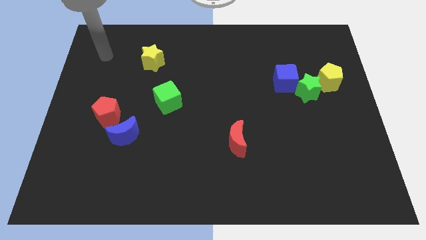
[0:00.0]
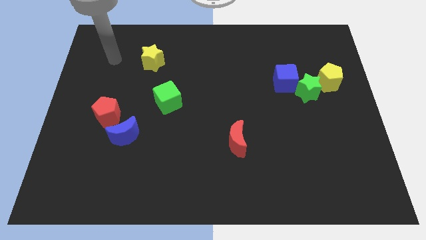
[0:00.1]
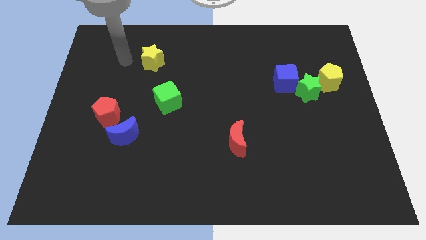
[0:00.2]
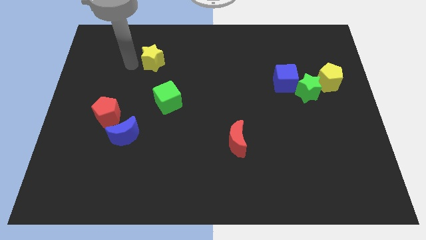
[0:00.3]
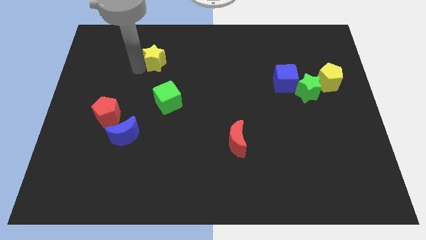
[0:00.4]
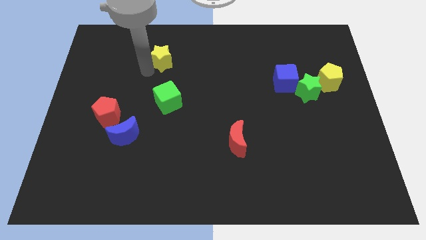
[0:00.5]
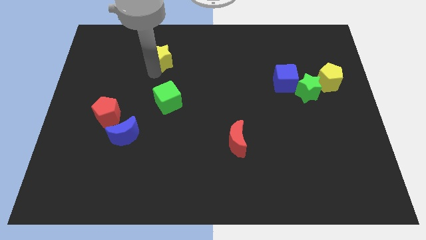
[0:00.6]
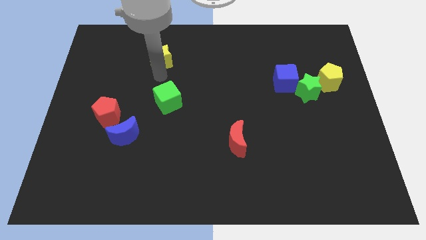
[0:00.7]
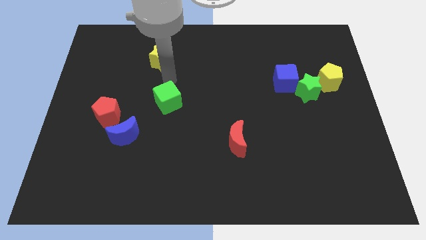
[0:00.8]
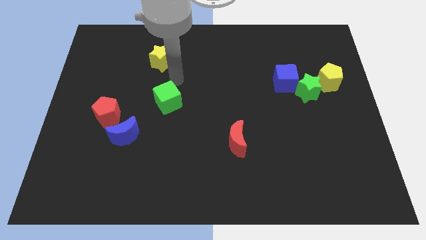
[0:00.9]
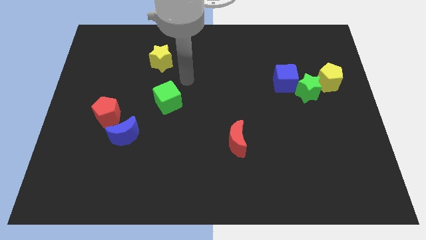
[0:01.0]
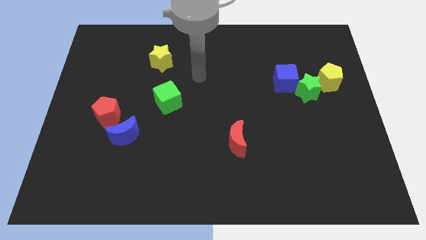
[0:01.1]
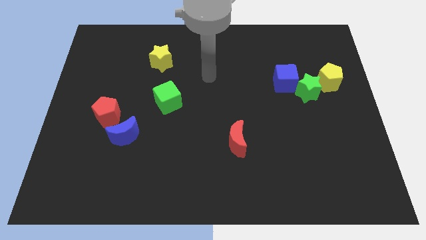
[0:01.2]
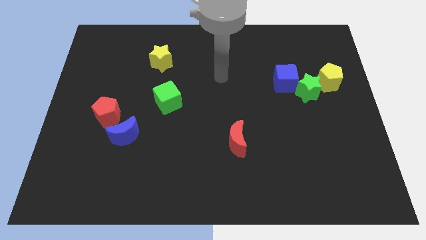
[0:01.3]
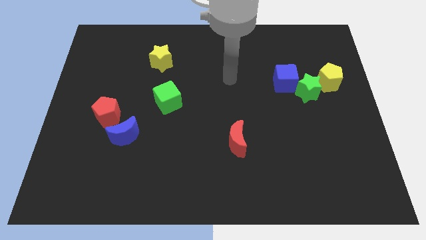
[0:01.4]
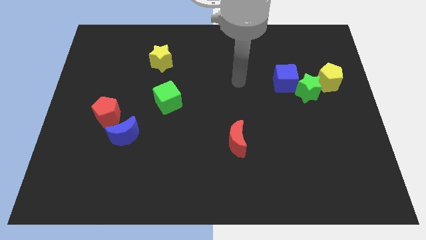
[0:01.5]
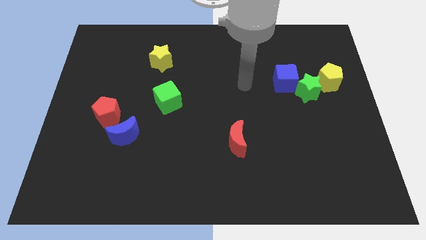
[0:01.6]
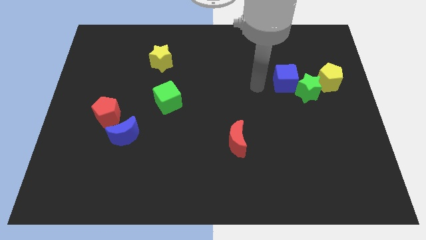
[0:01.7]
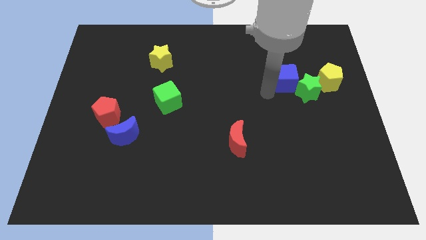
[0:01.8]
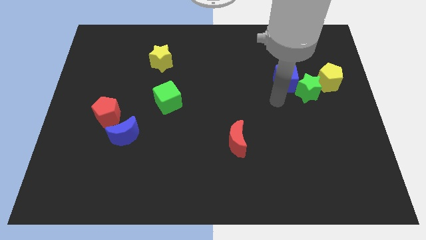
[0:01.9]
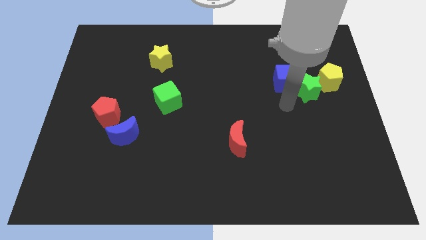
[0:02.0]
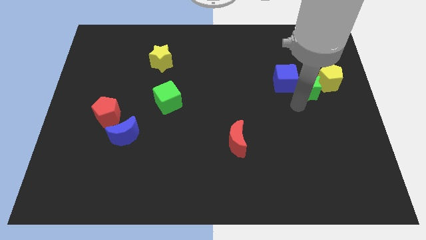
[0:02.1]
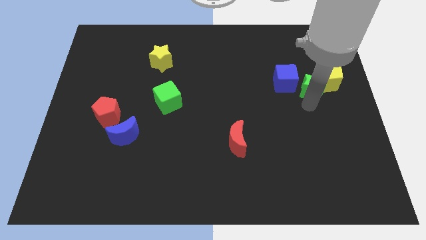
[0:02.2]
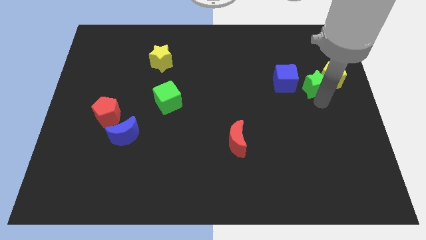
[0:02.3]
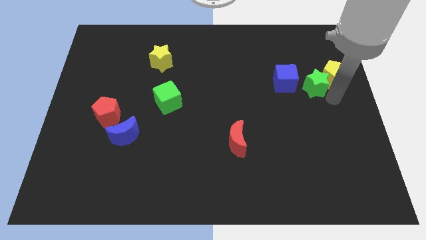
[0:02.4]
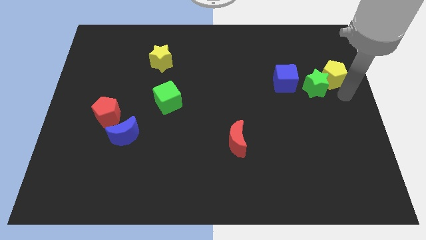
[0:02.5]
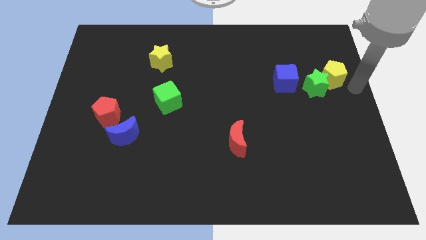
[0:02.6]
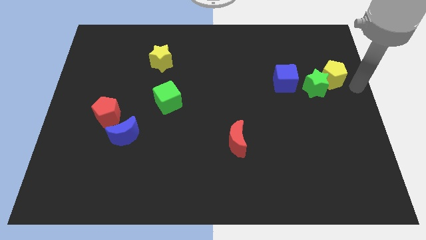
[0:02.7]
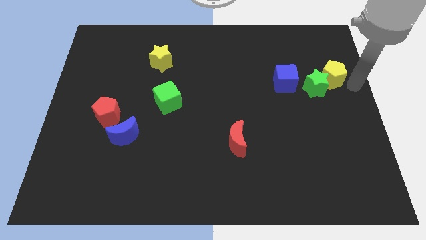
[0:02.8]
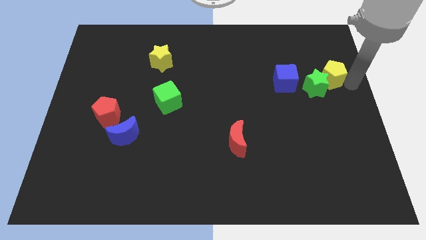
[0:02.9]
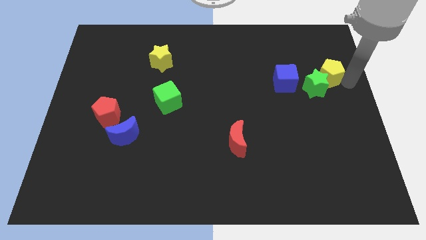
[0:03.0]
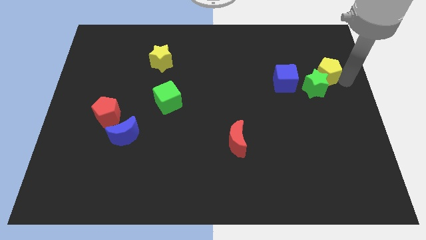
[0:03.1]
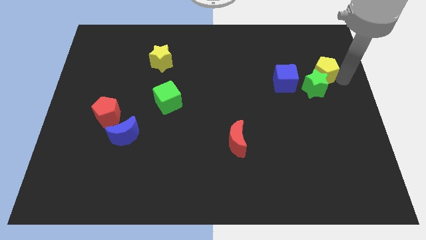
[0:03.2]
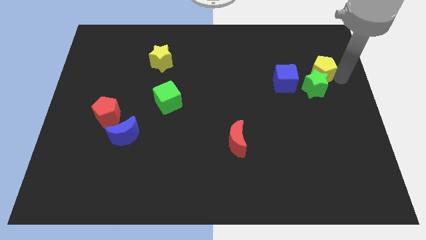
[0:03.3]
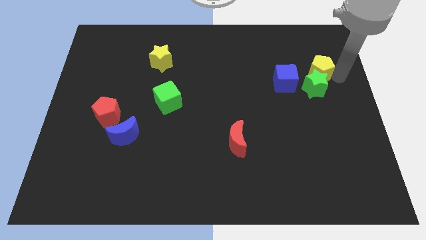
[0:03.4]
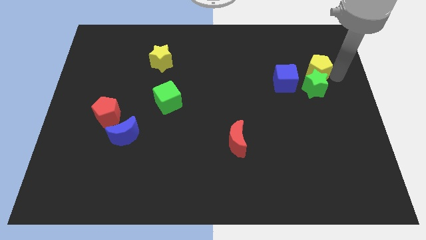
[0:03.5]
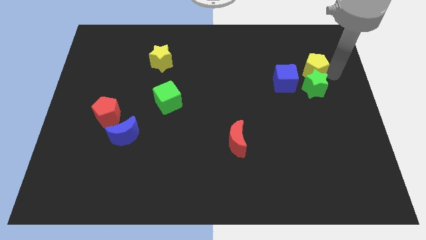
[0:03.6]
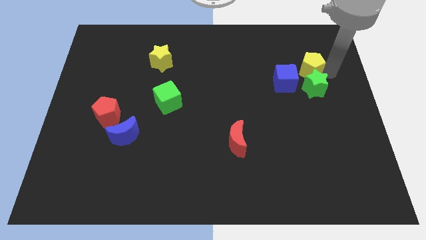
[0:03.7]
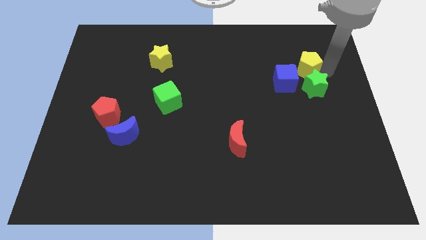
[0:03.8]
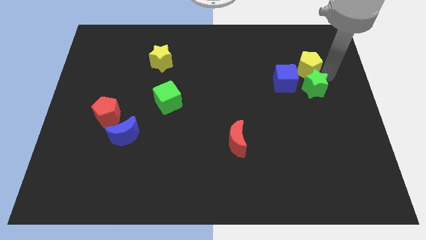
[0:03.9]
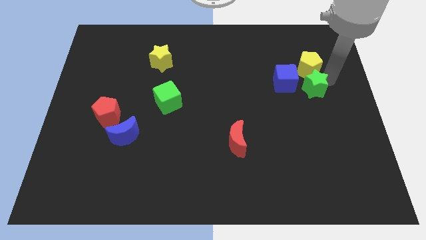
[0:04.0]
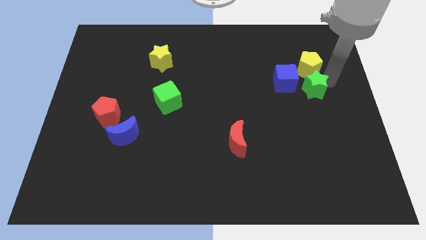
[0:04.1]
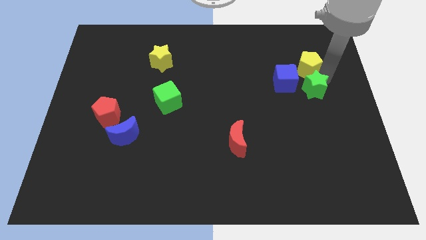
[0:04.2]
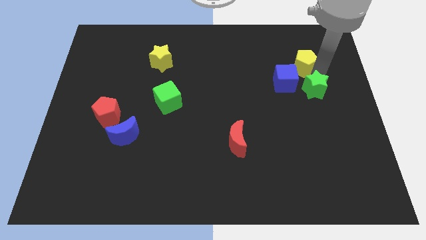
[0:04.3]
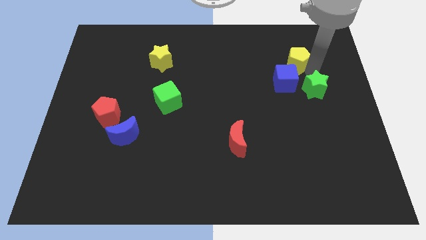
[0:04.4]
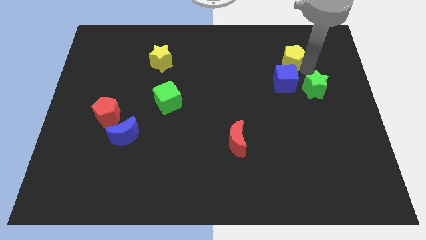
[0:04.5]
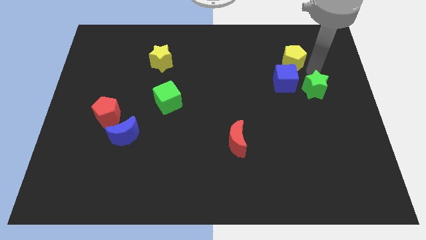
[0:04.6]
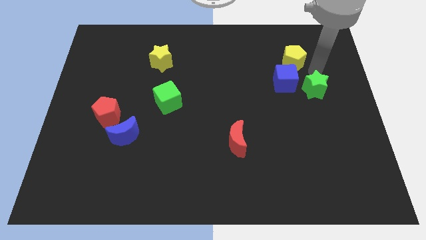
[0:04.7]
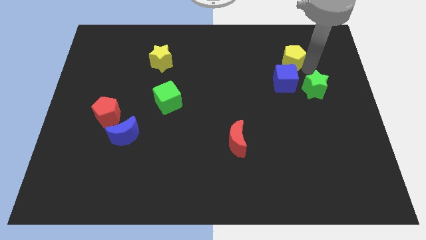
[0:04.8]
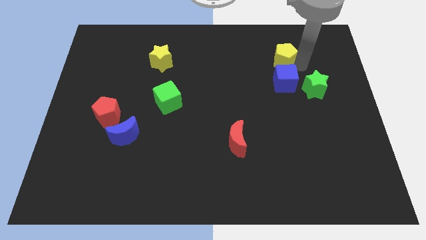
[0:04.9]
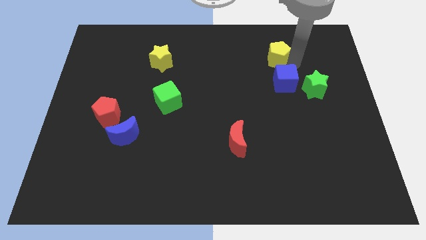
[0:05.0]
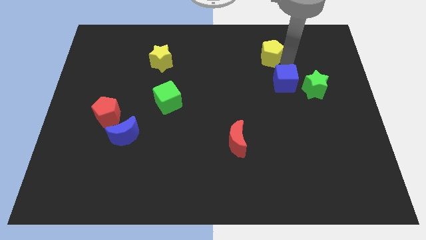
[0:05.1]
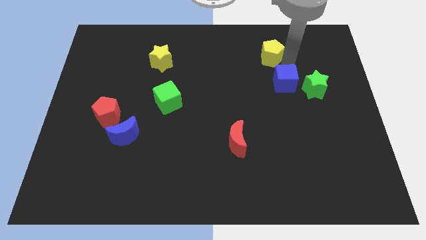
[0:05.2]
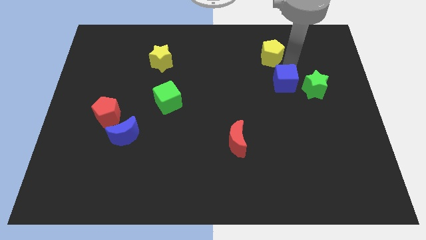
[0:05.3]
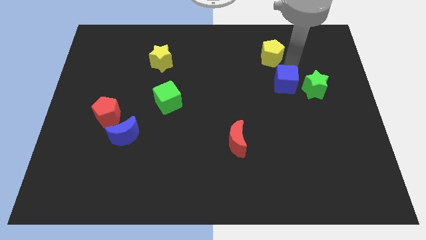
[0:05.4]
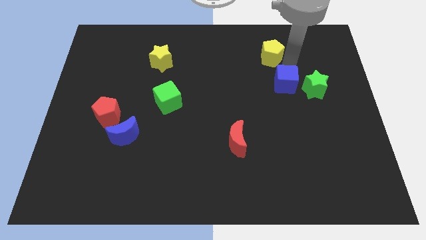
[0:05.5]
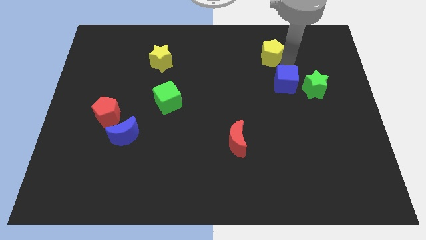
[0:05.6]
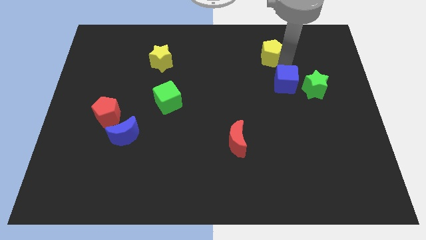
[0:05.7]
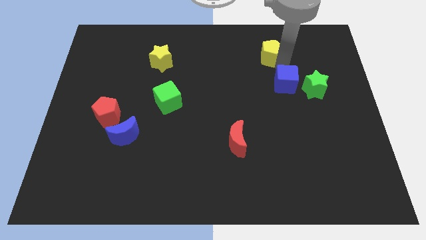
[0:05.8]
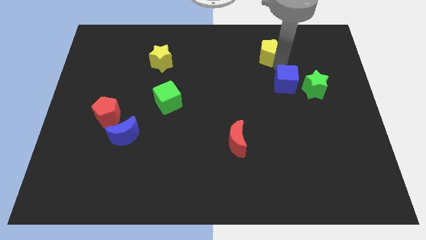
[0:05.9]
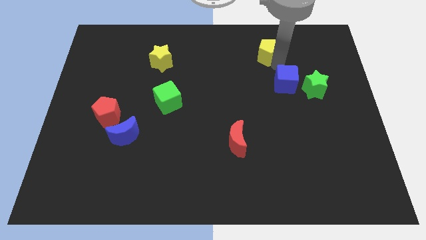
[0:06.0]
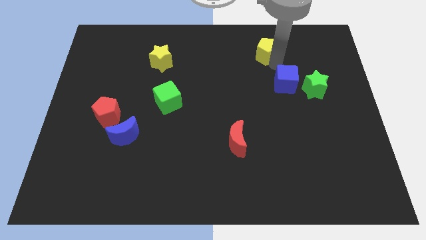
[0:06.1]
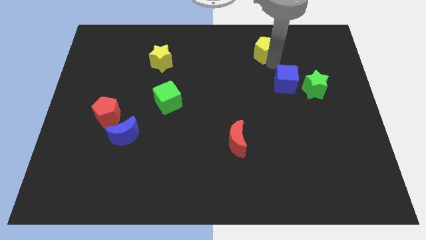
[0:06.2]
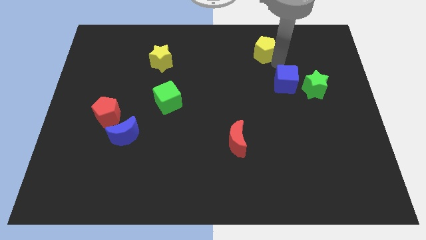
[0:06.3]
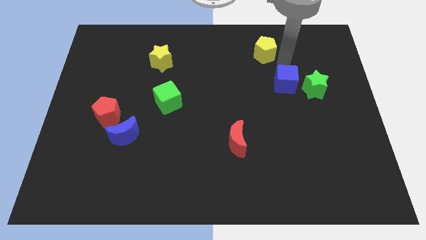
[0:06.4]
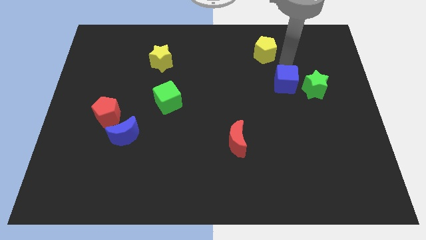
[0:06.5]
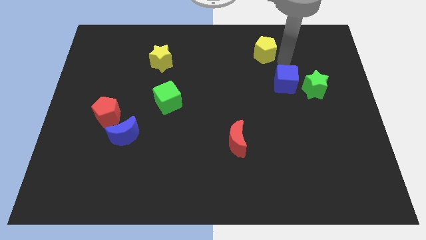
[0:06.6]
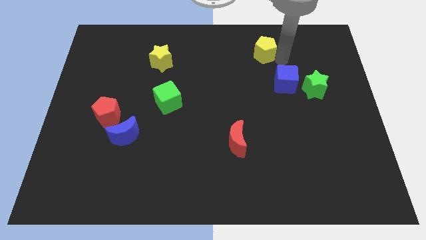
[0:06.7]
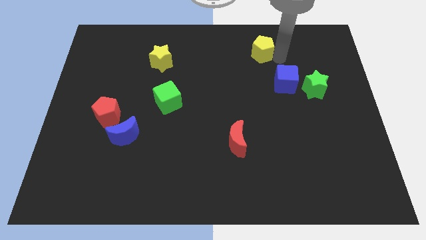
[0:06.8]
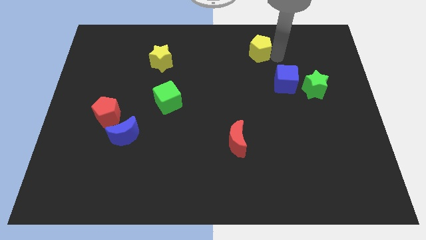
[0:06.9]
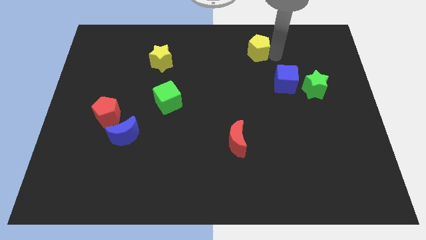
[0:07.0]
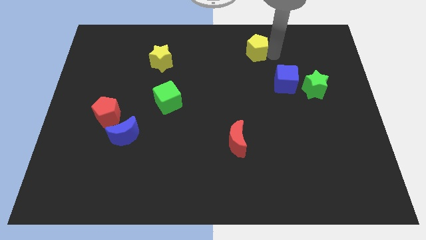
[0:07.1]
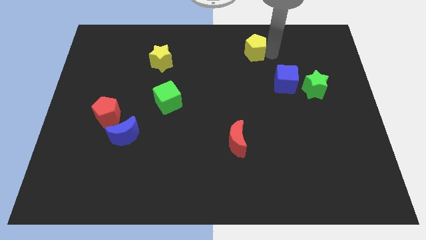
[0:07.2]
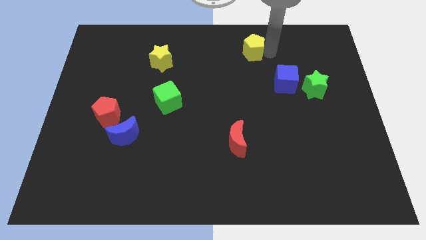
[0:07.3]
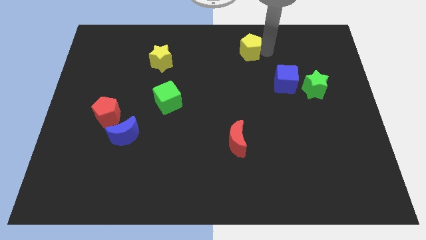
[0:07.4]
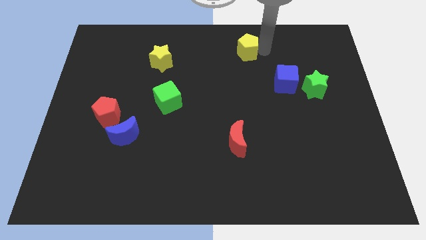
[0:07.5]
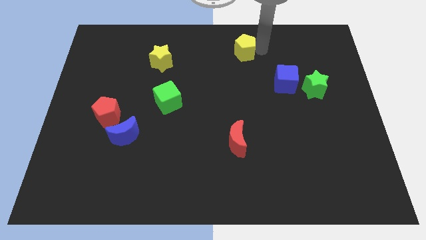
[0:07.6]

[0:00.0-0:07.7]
slide the yellow pentagon to the towards your base
